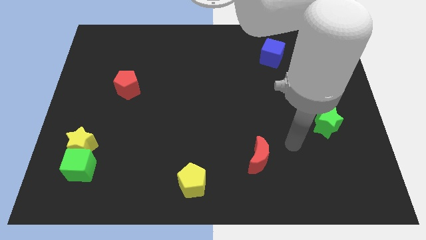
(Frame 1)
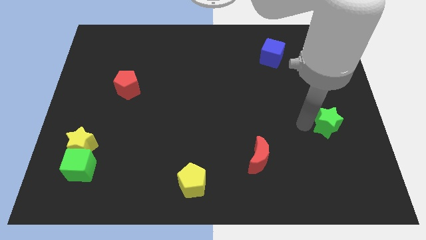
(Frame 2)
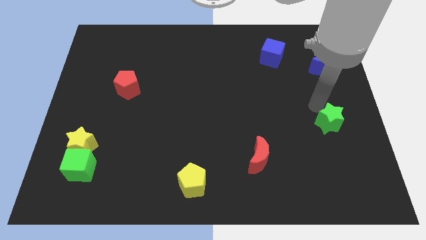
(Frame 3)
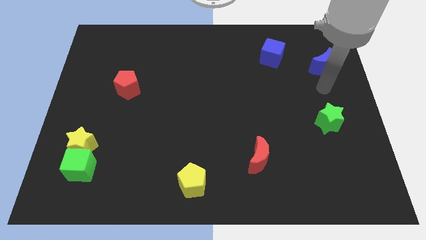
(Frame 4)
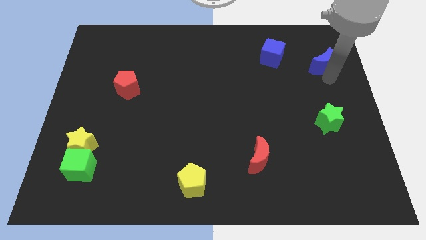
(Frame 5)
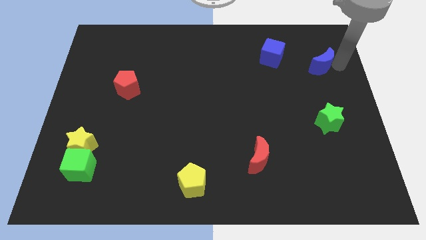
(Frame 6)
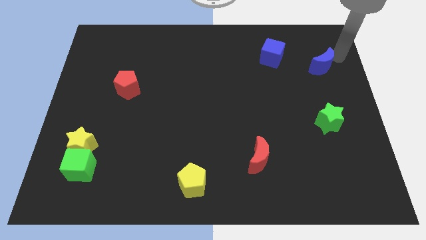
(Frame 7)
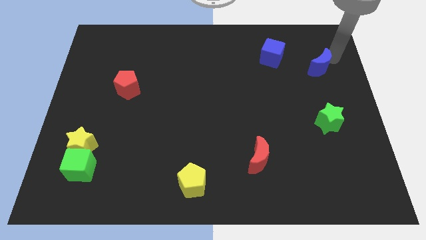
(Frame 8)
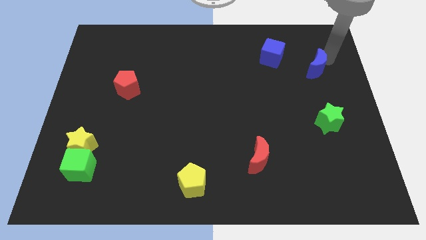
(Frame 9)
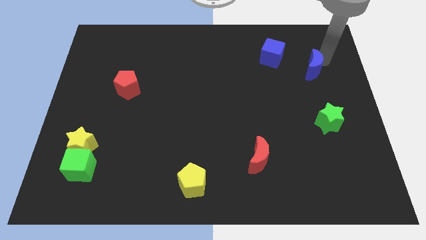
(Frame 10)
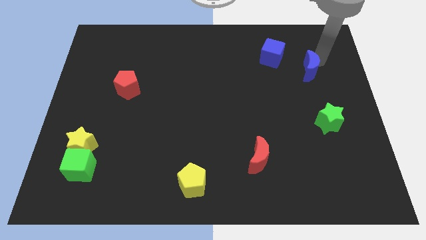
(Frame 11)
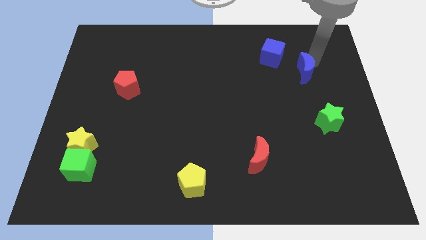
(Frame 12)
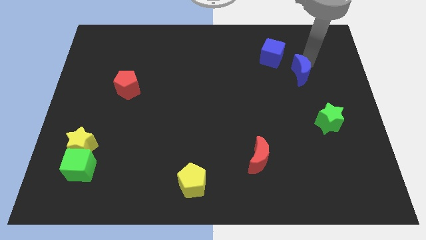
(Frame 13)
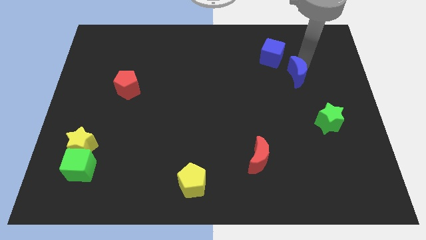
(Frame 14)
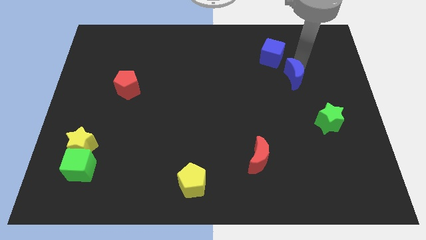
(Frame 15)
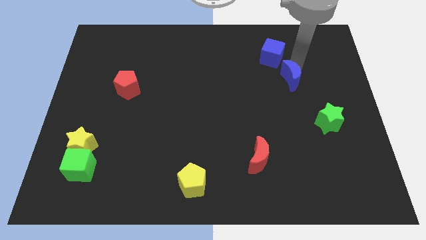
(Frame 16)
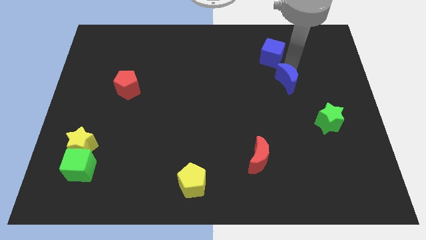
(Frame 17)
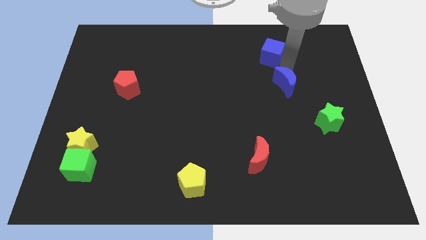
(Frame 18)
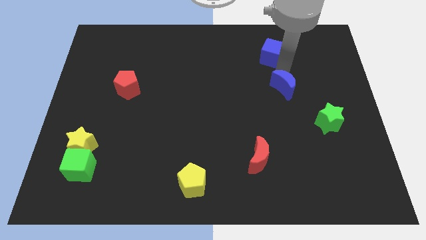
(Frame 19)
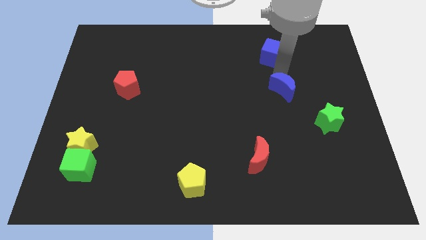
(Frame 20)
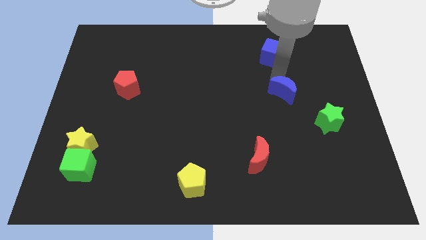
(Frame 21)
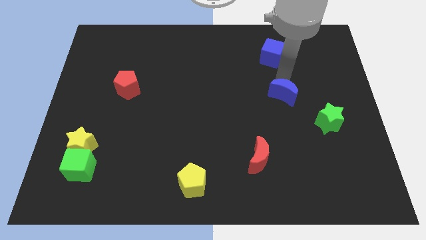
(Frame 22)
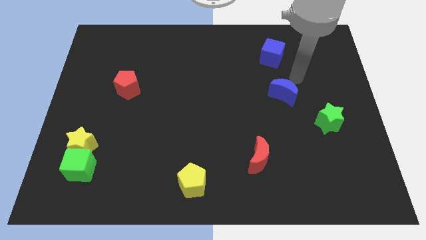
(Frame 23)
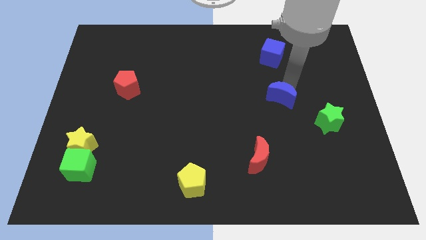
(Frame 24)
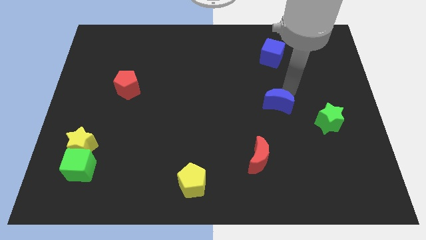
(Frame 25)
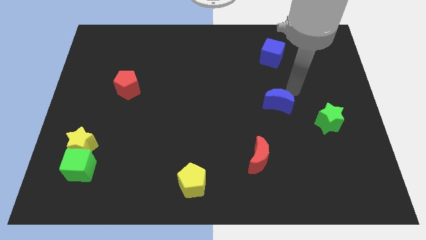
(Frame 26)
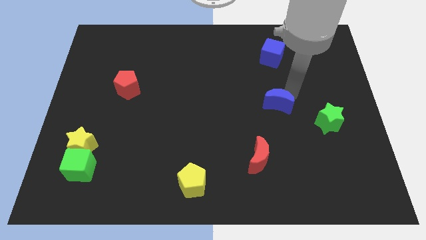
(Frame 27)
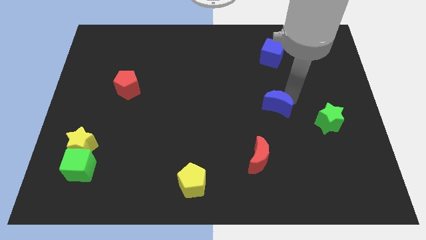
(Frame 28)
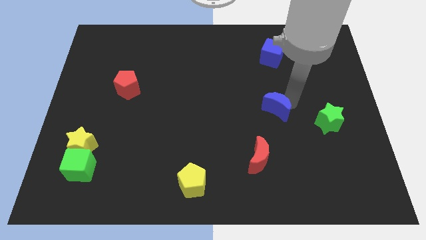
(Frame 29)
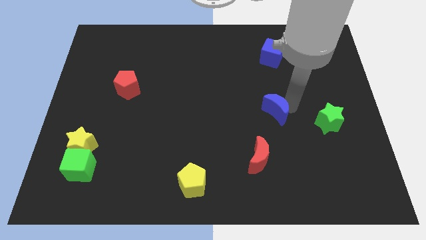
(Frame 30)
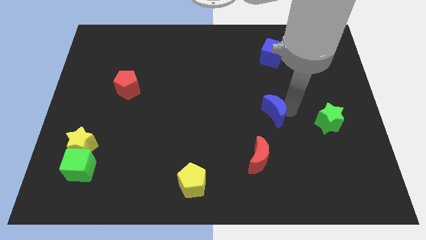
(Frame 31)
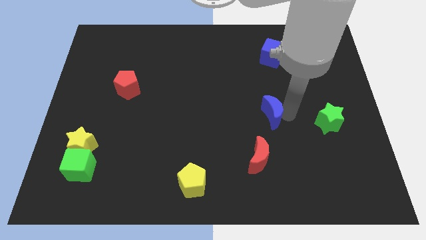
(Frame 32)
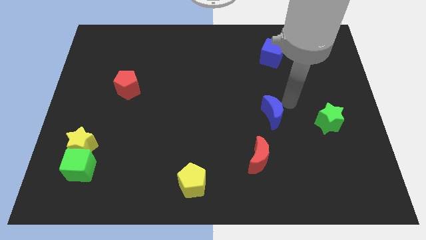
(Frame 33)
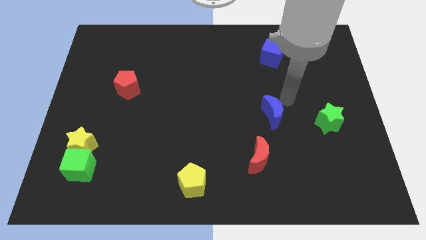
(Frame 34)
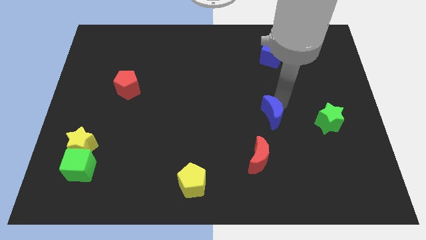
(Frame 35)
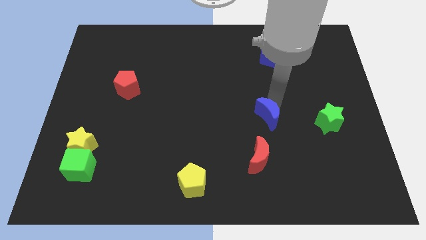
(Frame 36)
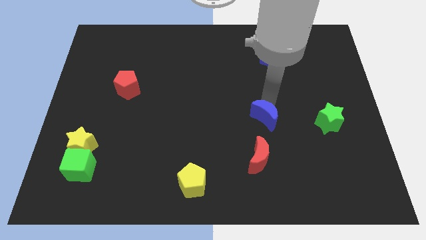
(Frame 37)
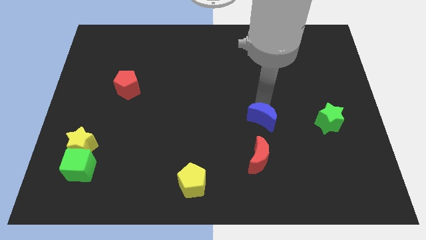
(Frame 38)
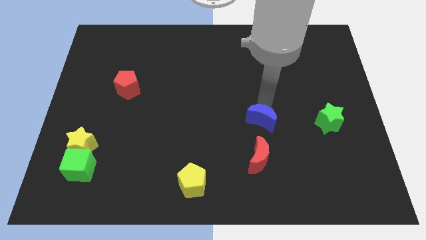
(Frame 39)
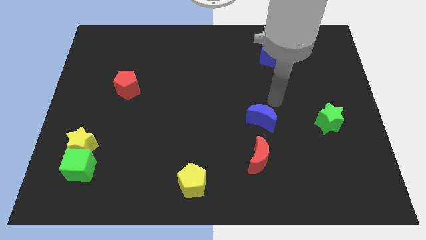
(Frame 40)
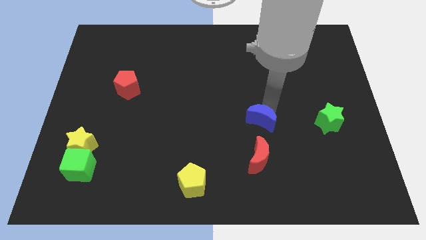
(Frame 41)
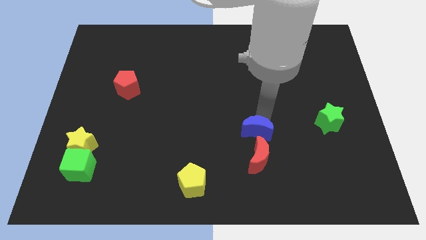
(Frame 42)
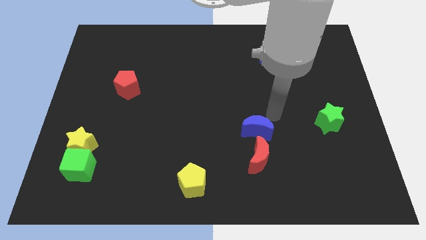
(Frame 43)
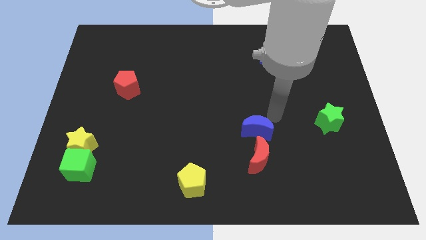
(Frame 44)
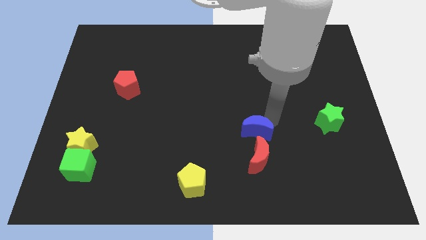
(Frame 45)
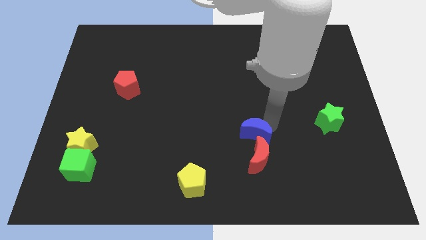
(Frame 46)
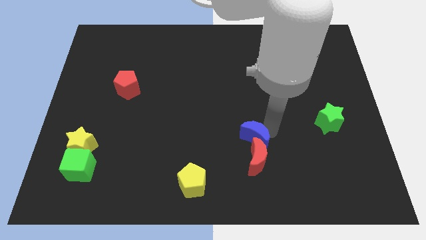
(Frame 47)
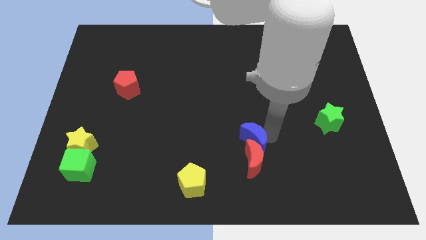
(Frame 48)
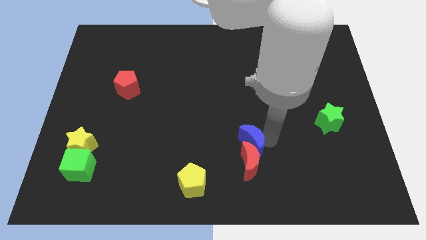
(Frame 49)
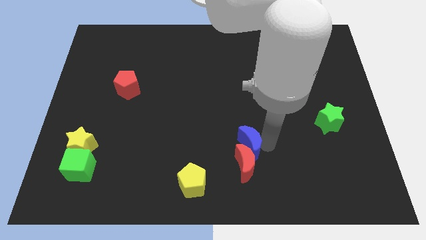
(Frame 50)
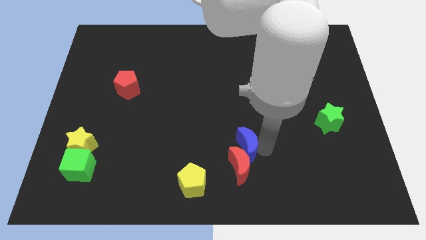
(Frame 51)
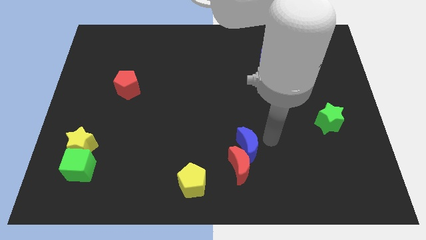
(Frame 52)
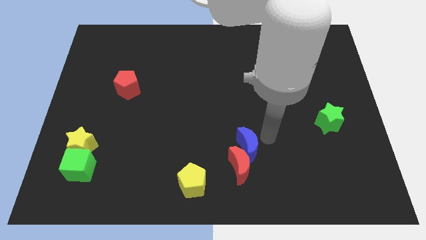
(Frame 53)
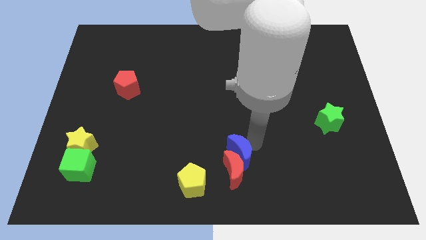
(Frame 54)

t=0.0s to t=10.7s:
move the blue moon to the top right of the yellow pentagon

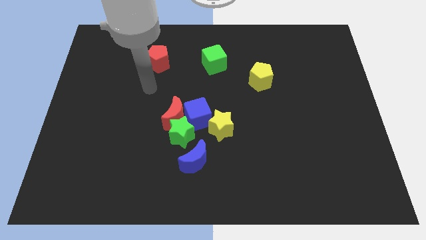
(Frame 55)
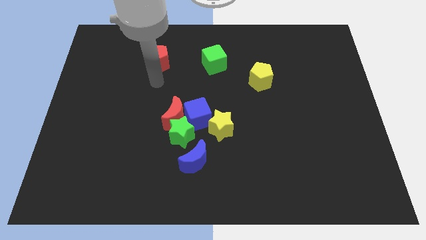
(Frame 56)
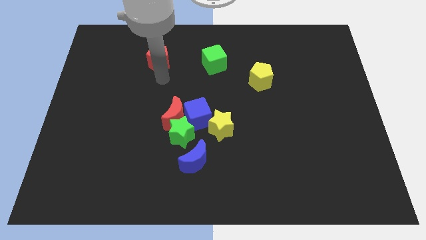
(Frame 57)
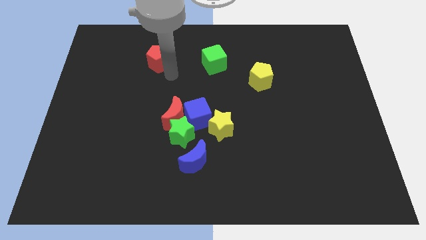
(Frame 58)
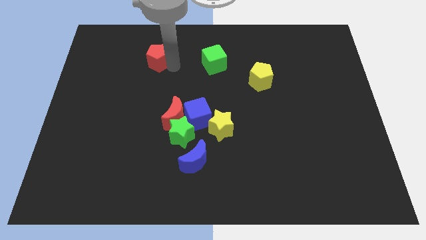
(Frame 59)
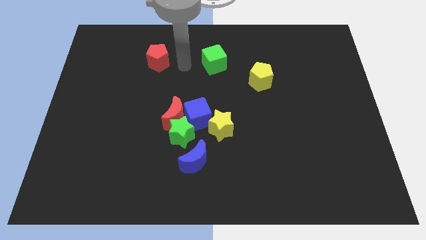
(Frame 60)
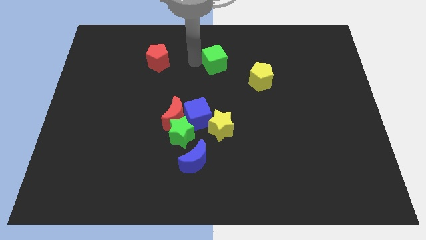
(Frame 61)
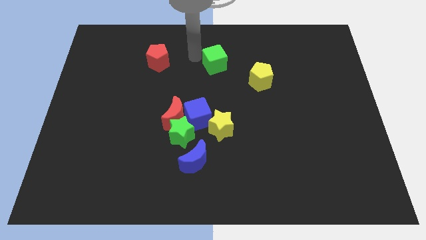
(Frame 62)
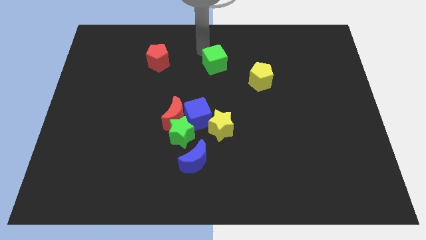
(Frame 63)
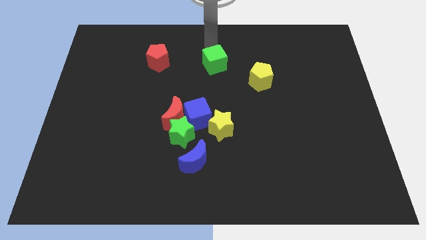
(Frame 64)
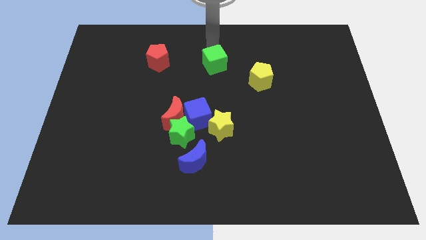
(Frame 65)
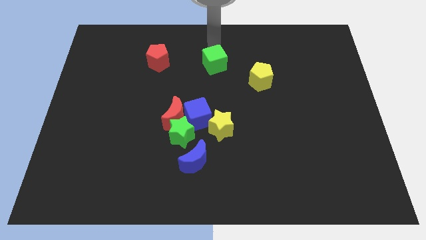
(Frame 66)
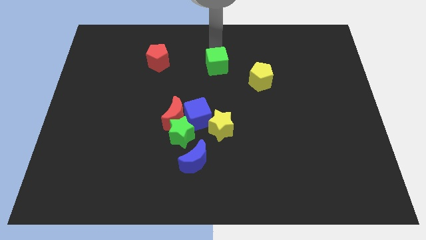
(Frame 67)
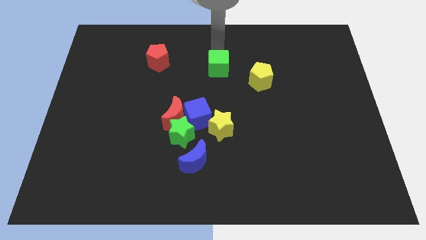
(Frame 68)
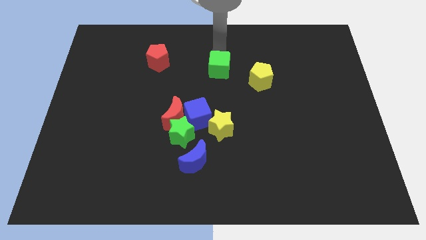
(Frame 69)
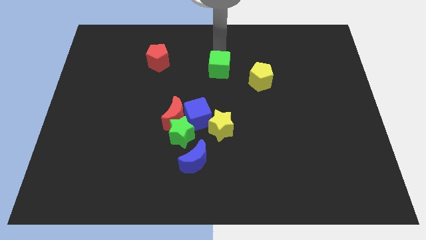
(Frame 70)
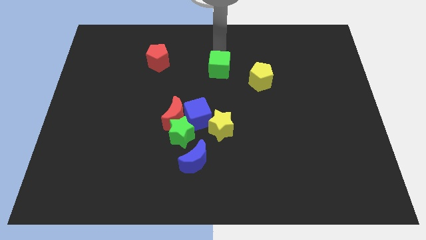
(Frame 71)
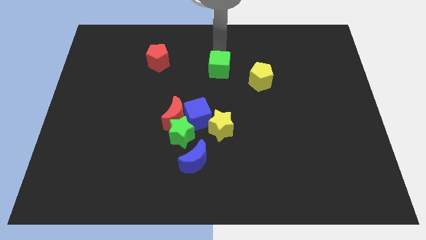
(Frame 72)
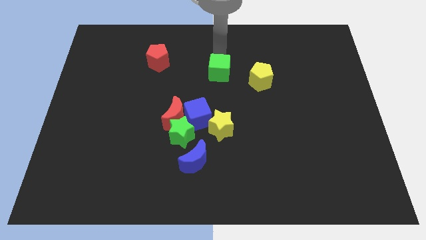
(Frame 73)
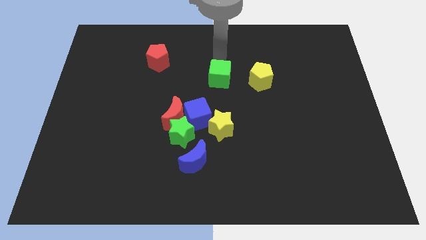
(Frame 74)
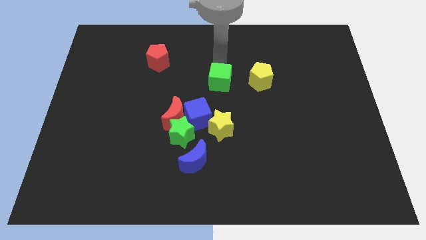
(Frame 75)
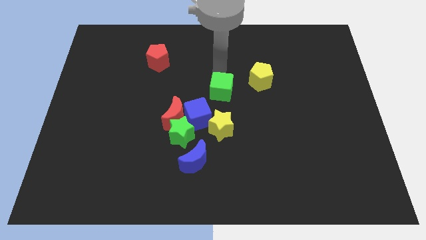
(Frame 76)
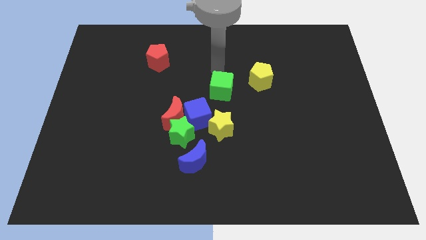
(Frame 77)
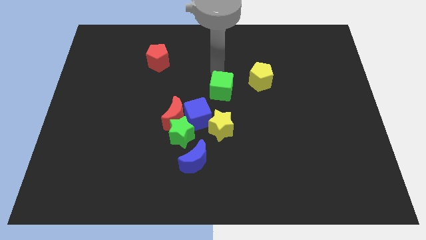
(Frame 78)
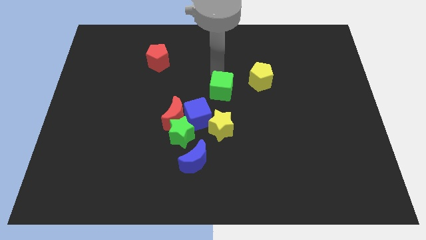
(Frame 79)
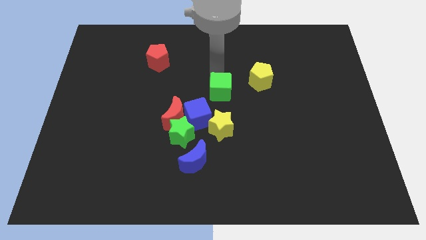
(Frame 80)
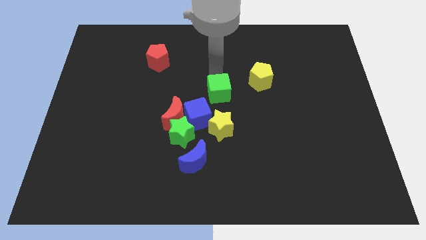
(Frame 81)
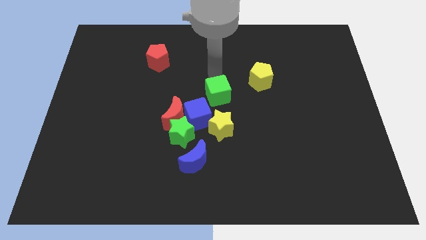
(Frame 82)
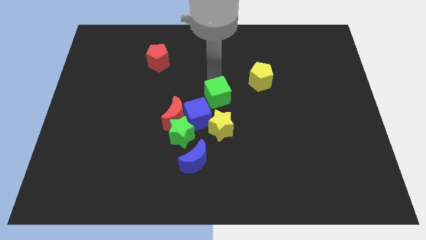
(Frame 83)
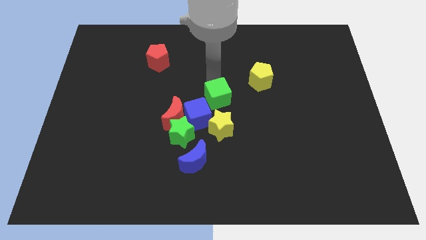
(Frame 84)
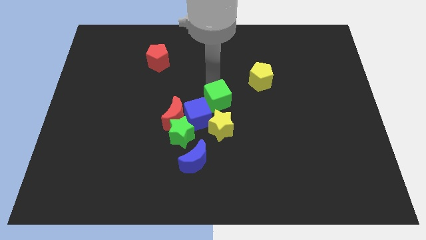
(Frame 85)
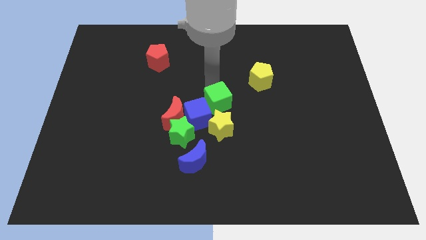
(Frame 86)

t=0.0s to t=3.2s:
push the green cube right of the red moon
